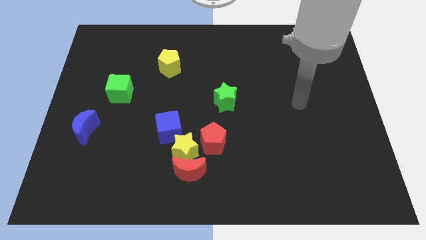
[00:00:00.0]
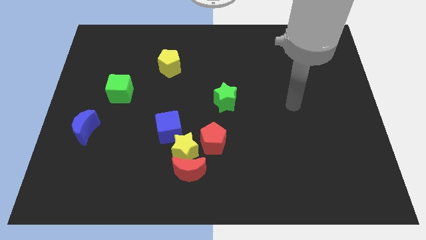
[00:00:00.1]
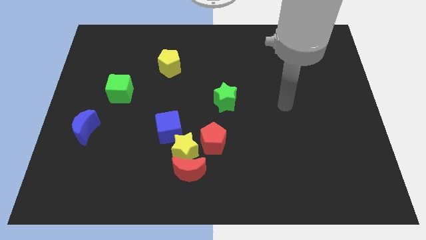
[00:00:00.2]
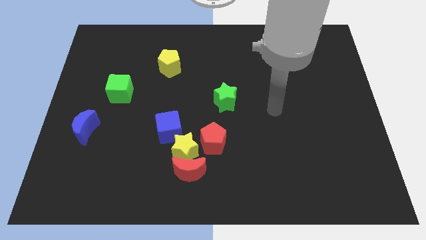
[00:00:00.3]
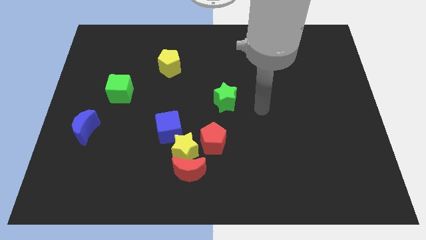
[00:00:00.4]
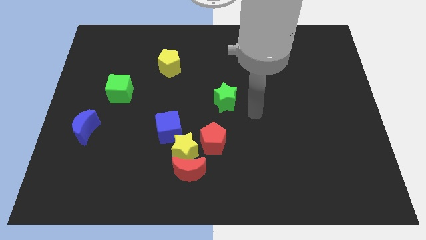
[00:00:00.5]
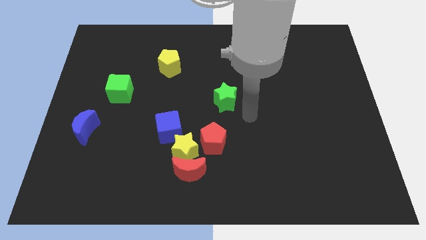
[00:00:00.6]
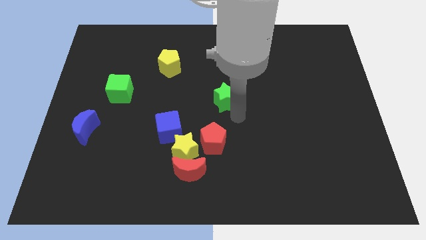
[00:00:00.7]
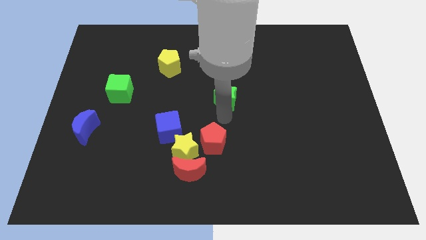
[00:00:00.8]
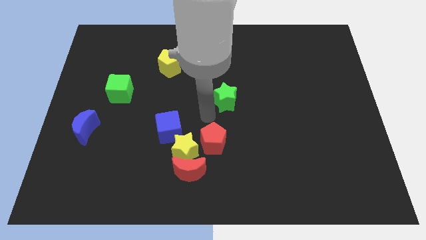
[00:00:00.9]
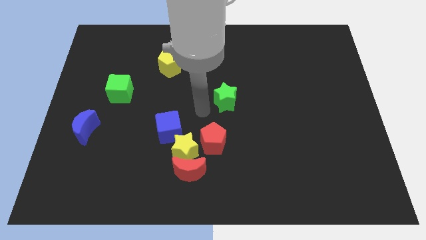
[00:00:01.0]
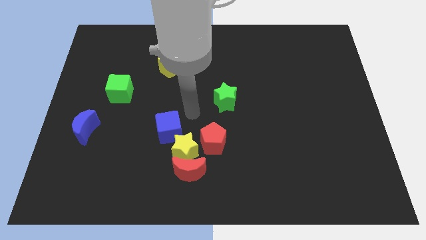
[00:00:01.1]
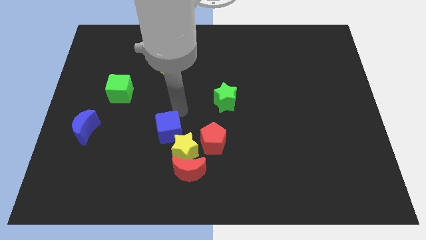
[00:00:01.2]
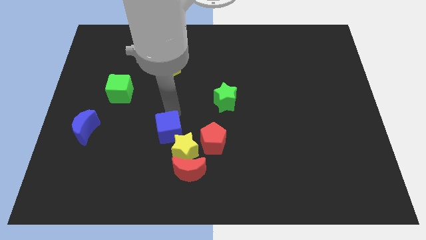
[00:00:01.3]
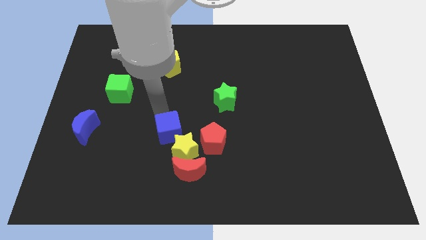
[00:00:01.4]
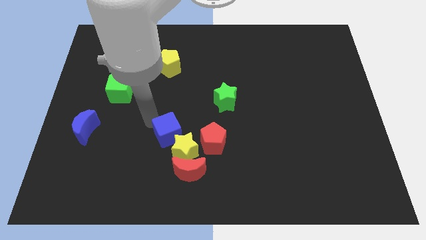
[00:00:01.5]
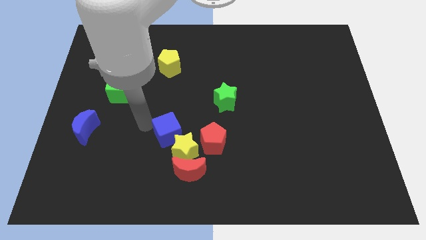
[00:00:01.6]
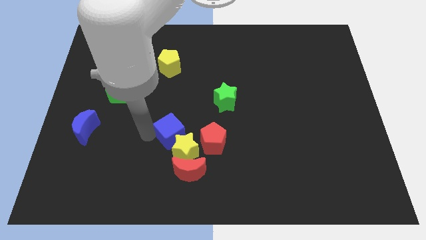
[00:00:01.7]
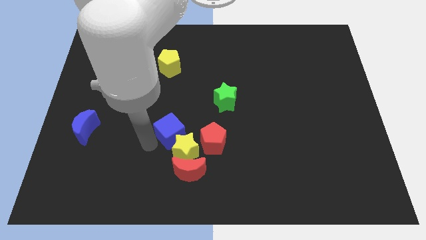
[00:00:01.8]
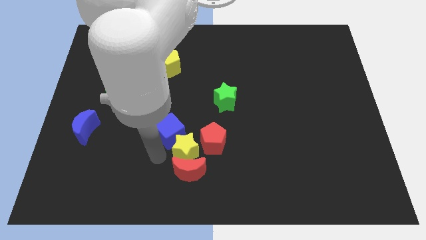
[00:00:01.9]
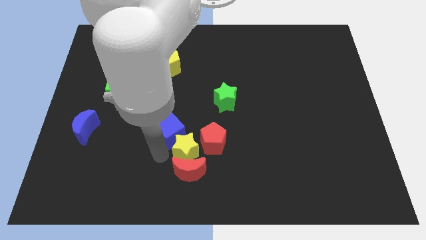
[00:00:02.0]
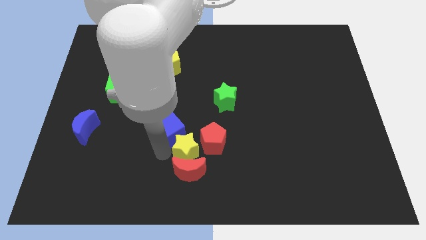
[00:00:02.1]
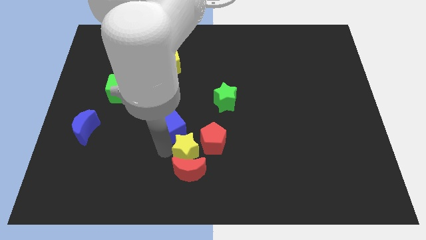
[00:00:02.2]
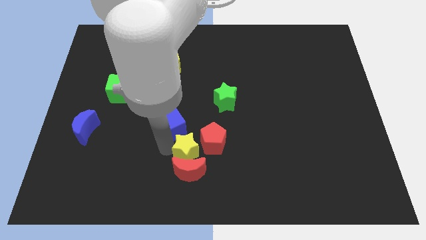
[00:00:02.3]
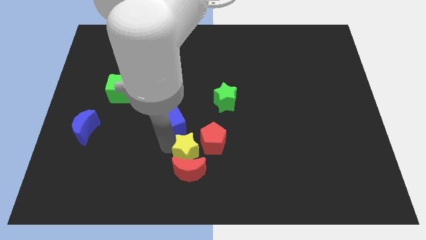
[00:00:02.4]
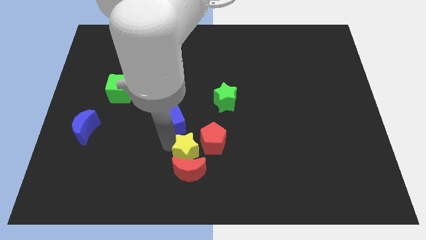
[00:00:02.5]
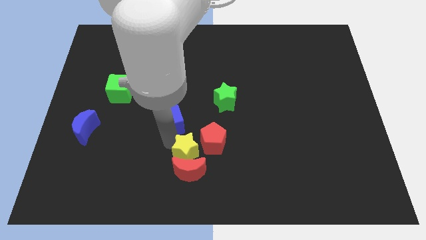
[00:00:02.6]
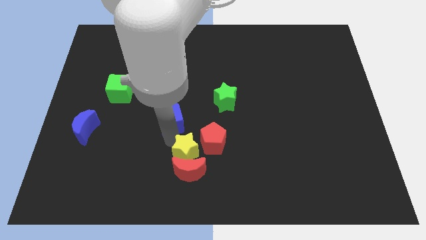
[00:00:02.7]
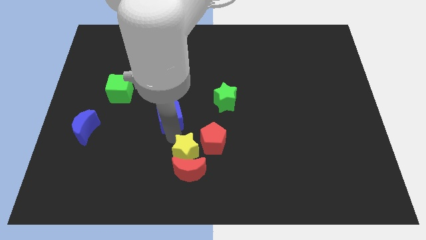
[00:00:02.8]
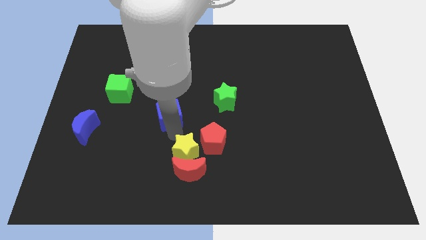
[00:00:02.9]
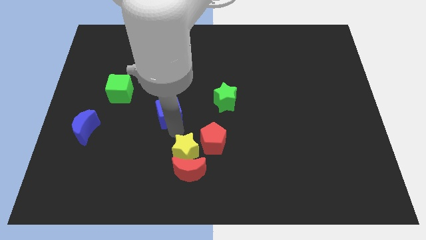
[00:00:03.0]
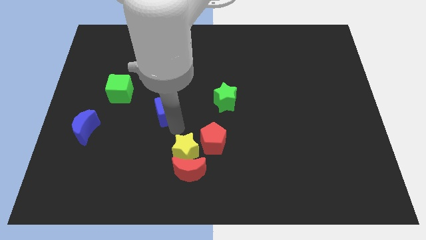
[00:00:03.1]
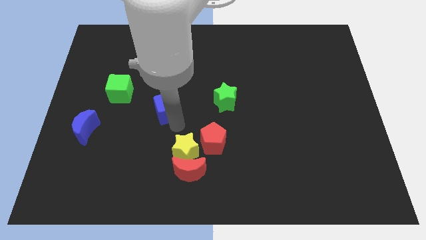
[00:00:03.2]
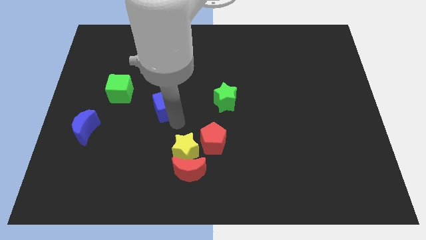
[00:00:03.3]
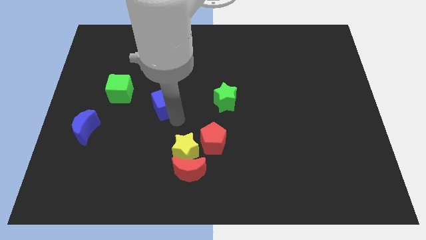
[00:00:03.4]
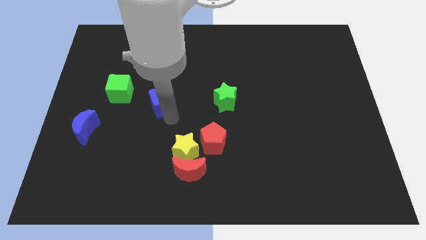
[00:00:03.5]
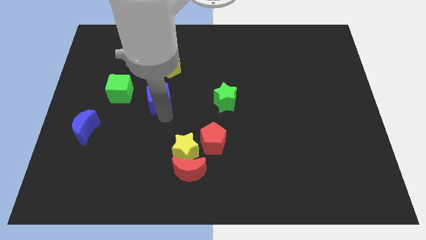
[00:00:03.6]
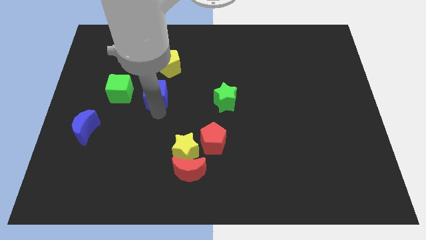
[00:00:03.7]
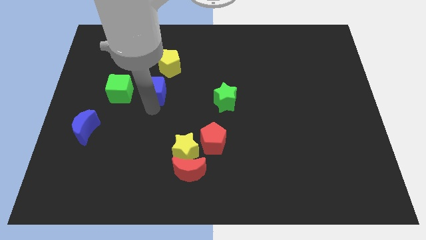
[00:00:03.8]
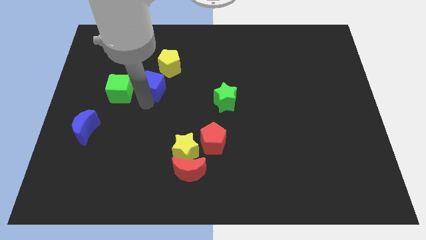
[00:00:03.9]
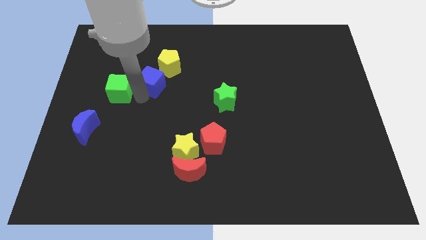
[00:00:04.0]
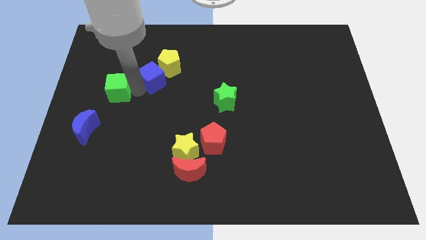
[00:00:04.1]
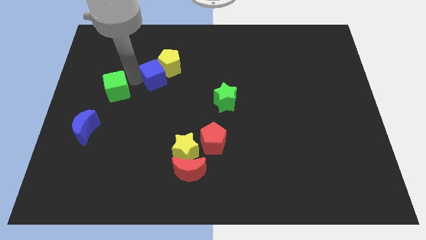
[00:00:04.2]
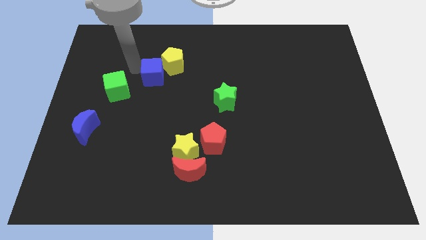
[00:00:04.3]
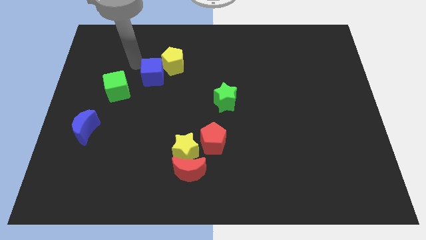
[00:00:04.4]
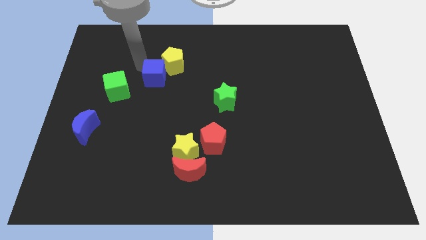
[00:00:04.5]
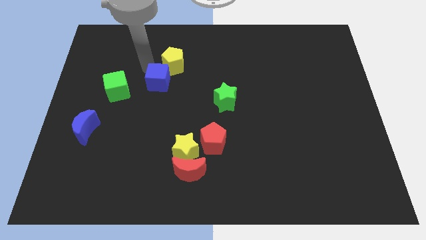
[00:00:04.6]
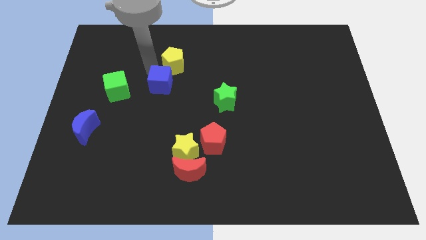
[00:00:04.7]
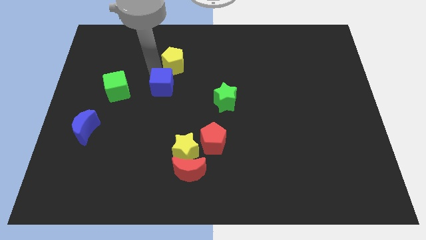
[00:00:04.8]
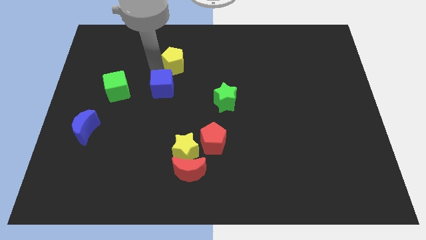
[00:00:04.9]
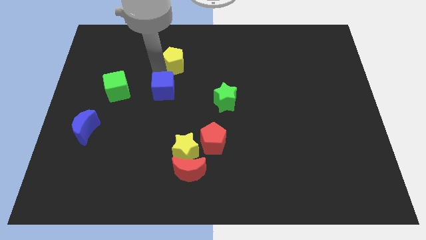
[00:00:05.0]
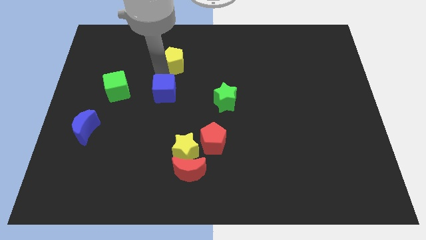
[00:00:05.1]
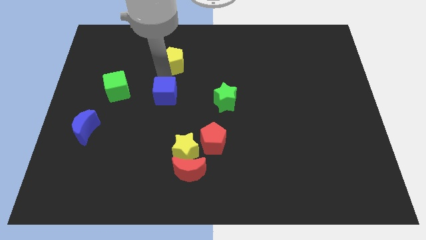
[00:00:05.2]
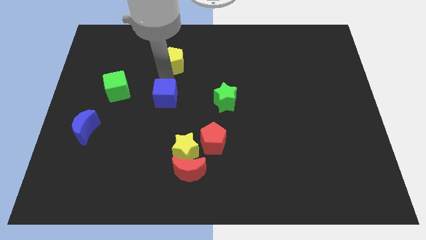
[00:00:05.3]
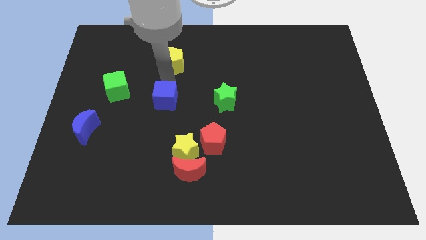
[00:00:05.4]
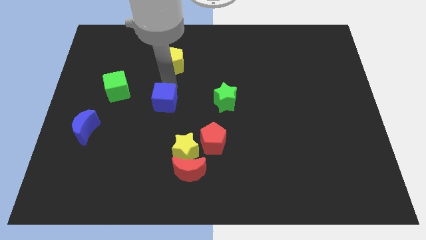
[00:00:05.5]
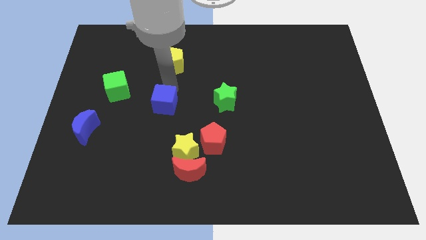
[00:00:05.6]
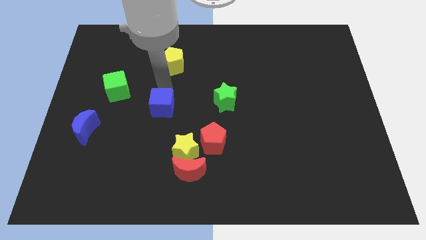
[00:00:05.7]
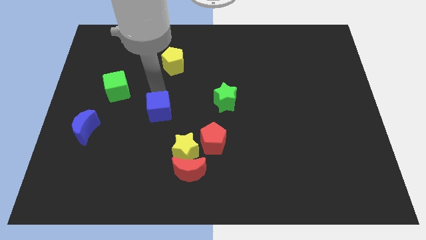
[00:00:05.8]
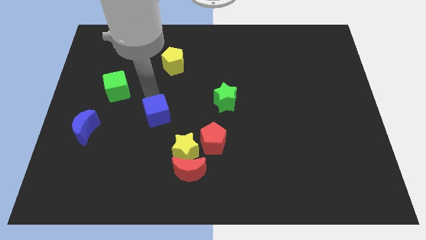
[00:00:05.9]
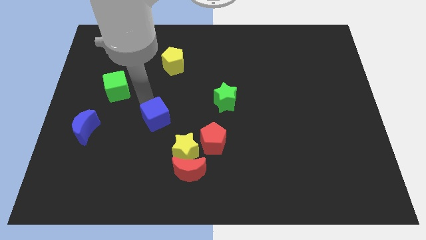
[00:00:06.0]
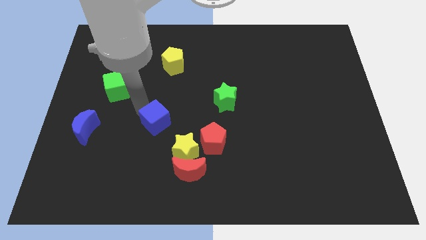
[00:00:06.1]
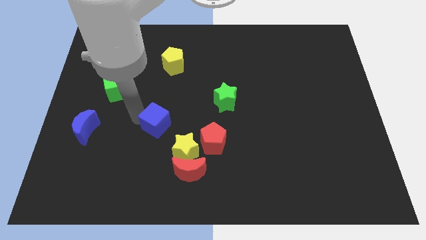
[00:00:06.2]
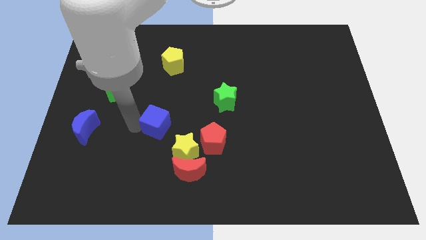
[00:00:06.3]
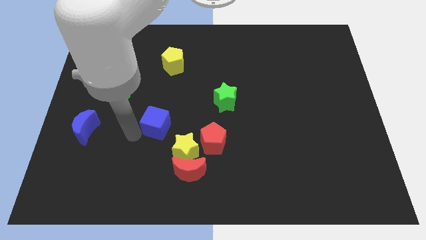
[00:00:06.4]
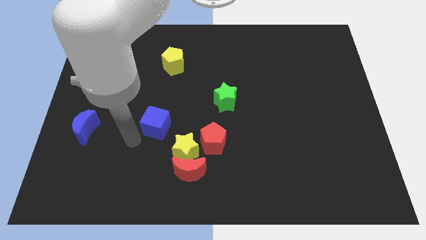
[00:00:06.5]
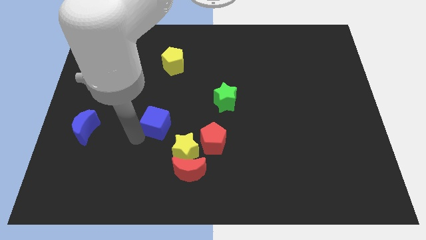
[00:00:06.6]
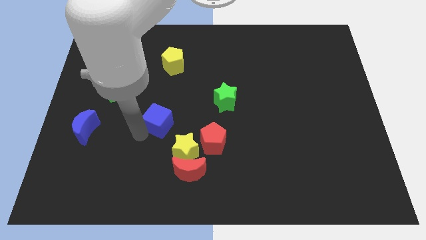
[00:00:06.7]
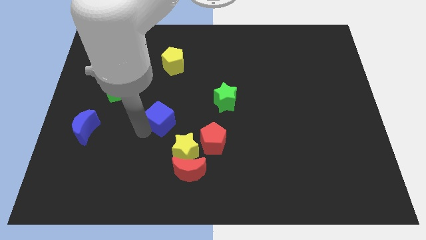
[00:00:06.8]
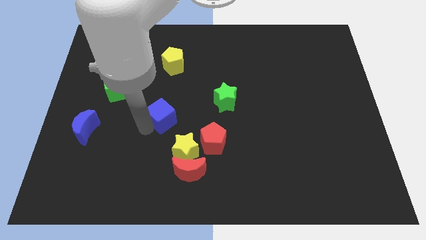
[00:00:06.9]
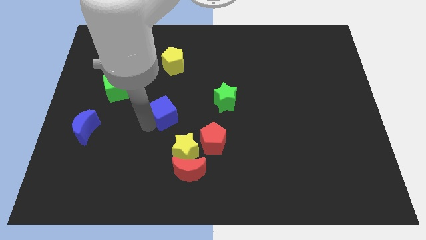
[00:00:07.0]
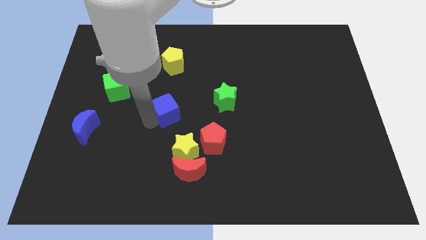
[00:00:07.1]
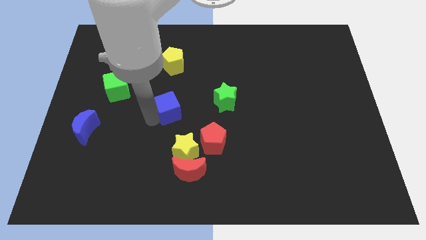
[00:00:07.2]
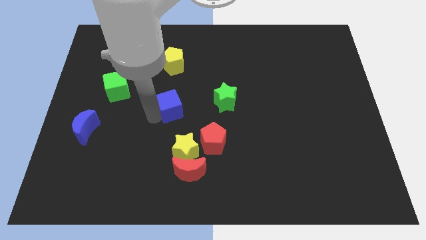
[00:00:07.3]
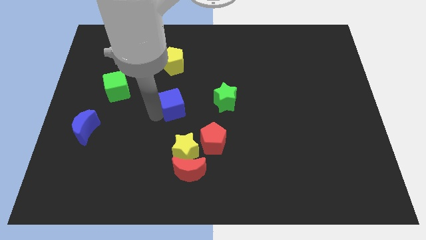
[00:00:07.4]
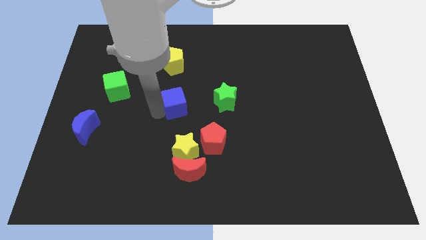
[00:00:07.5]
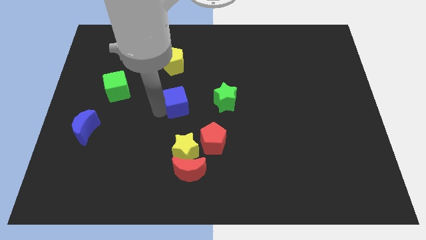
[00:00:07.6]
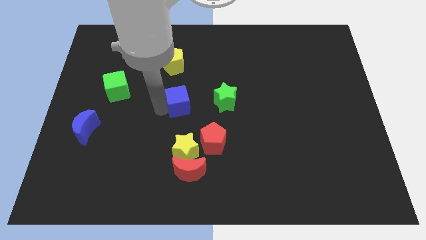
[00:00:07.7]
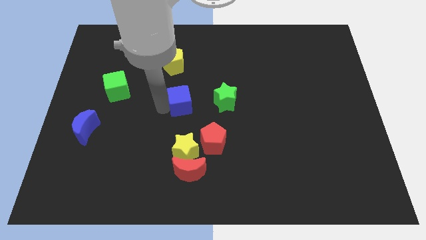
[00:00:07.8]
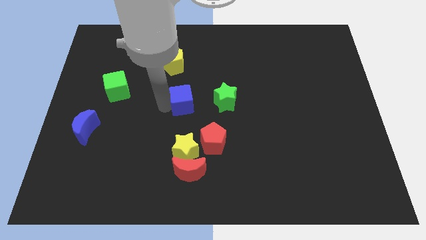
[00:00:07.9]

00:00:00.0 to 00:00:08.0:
slide the blue cube upwards and then right a bit

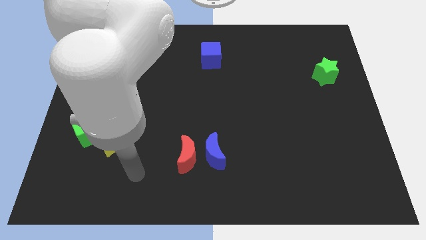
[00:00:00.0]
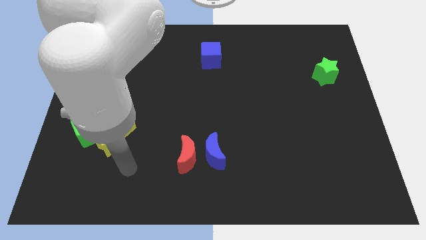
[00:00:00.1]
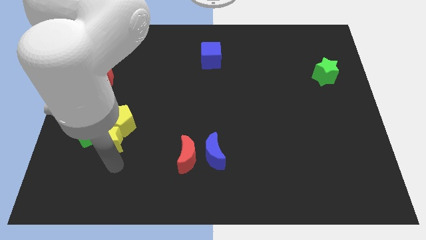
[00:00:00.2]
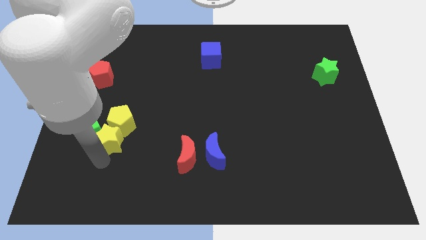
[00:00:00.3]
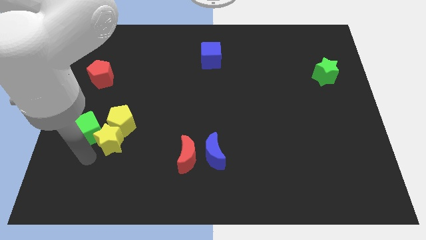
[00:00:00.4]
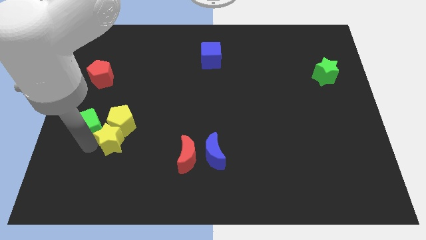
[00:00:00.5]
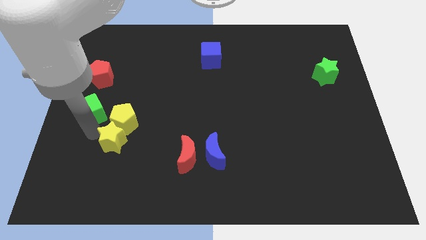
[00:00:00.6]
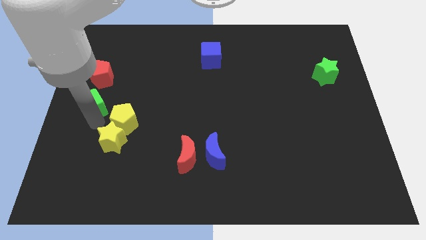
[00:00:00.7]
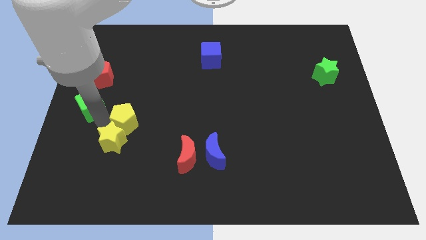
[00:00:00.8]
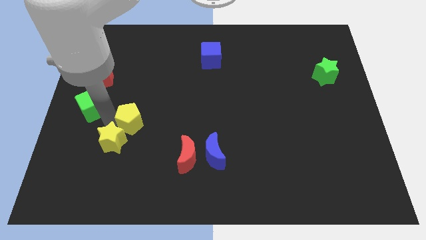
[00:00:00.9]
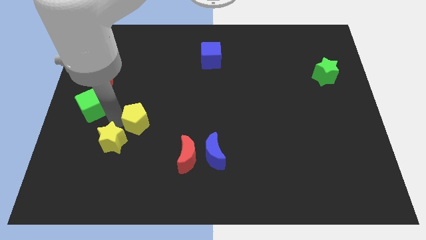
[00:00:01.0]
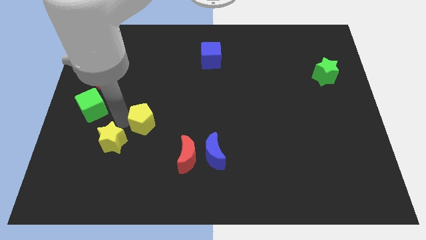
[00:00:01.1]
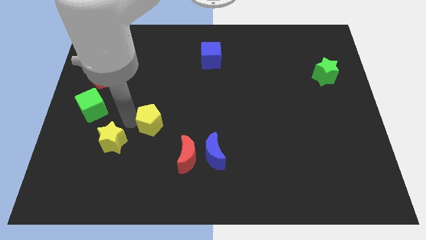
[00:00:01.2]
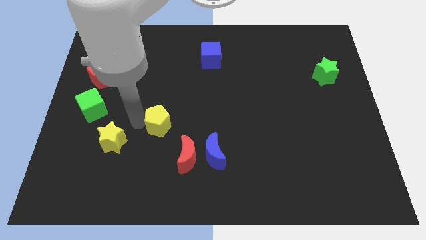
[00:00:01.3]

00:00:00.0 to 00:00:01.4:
push the yellow pentagon slightly right
